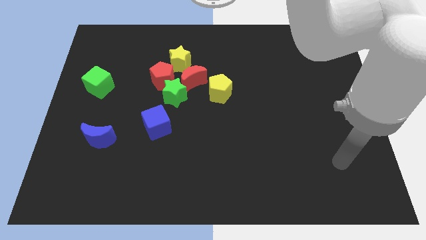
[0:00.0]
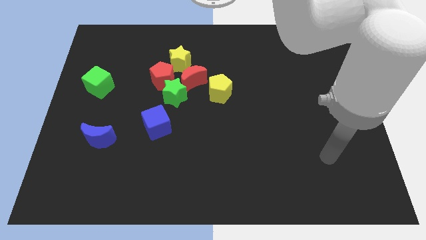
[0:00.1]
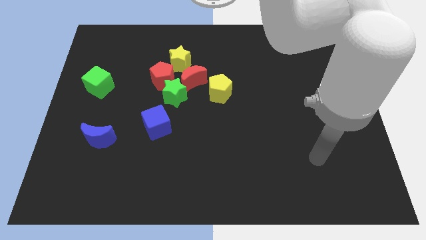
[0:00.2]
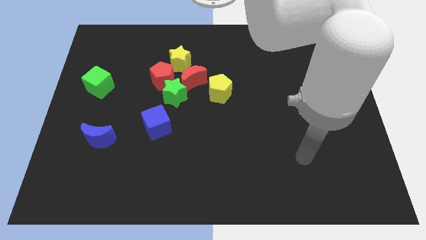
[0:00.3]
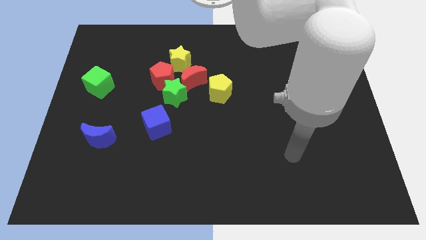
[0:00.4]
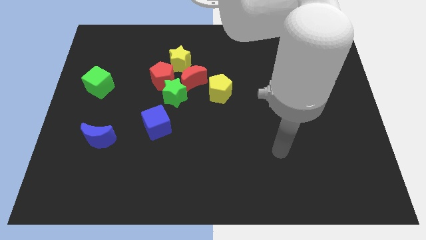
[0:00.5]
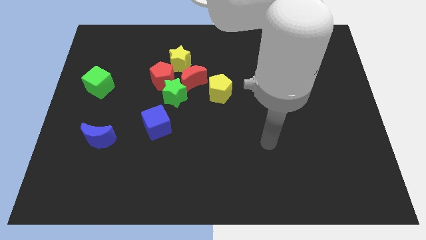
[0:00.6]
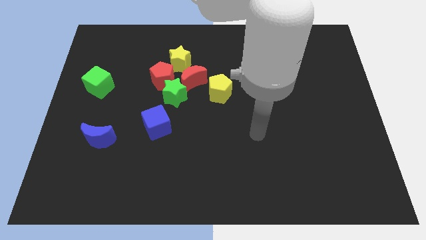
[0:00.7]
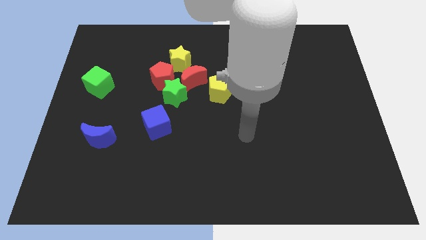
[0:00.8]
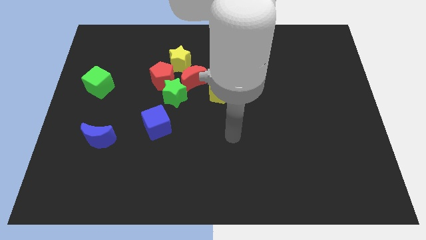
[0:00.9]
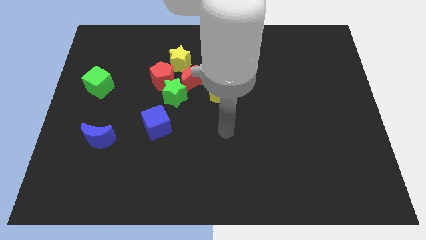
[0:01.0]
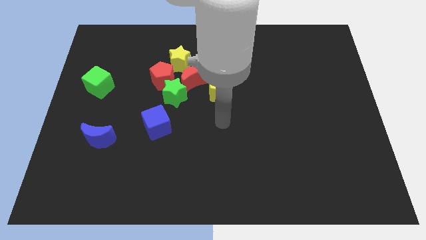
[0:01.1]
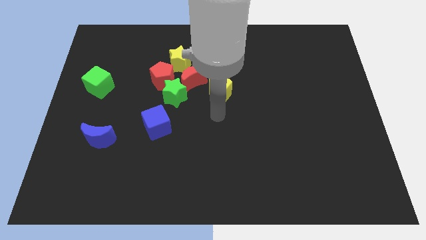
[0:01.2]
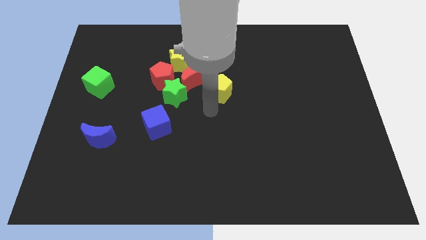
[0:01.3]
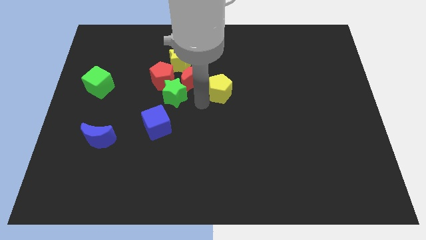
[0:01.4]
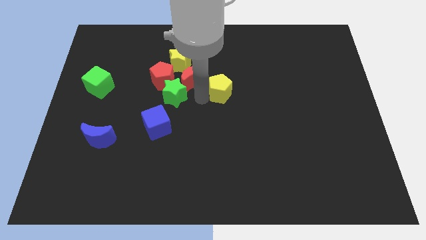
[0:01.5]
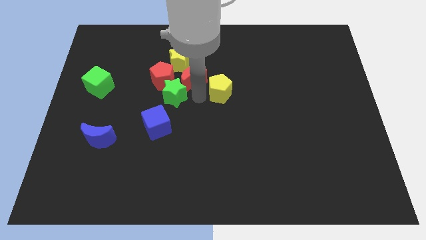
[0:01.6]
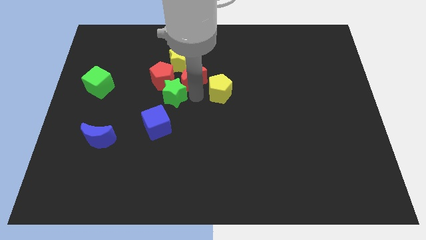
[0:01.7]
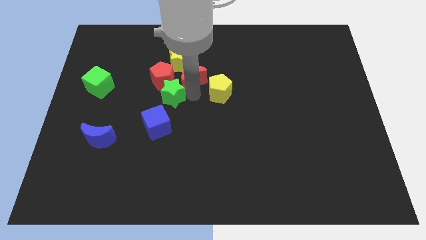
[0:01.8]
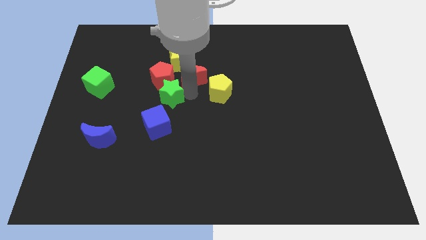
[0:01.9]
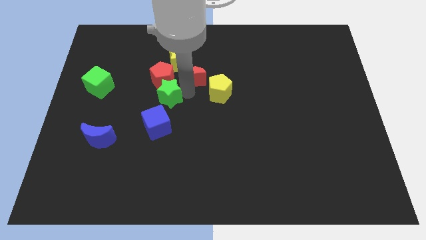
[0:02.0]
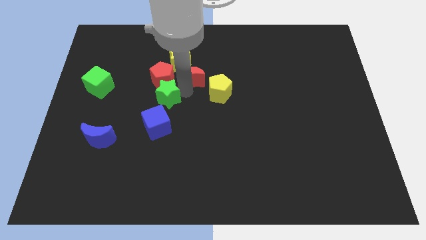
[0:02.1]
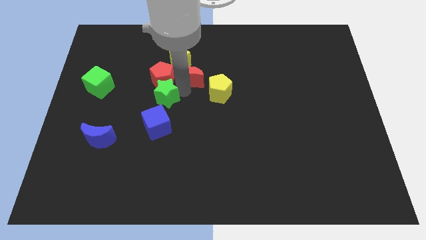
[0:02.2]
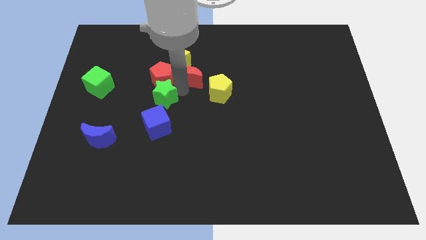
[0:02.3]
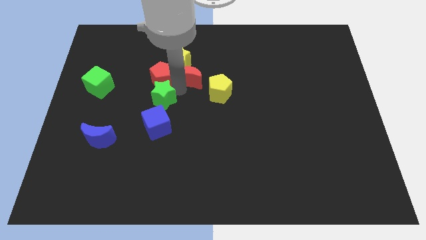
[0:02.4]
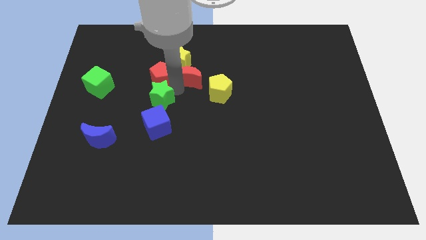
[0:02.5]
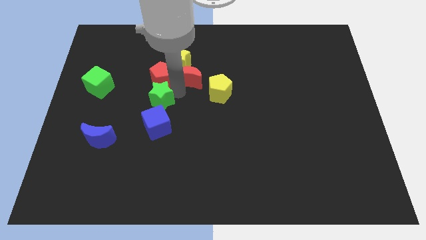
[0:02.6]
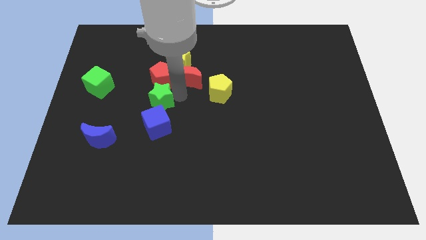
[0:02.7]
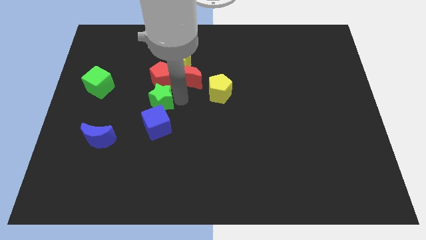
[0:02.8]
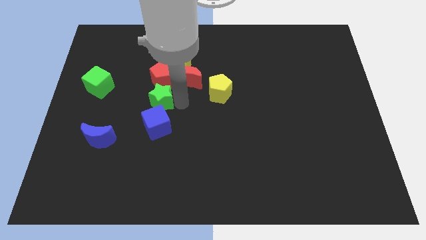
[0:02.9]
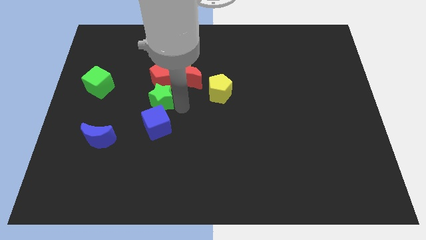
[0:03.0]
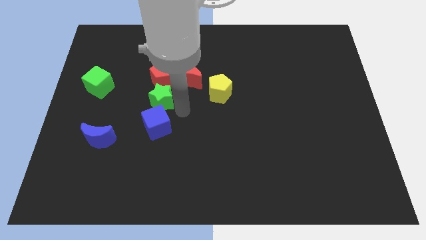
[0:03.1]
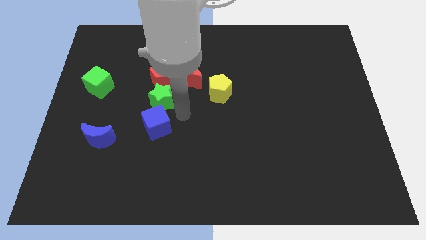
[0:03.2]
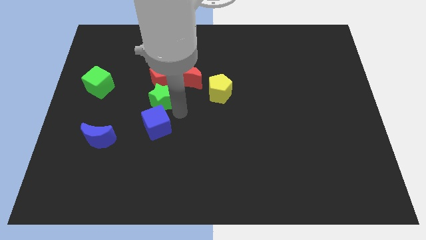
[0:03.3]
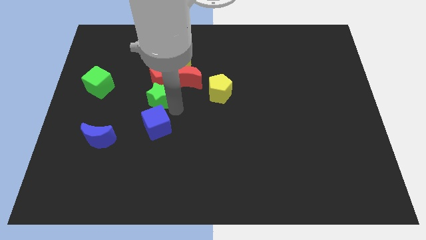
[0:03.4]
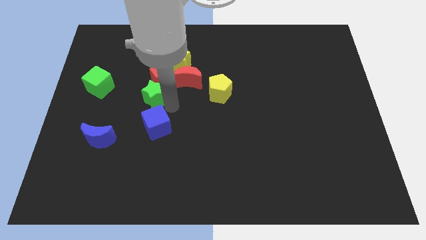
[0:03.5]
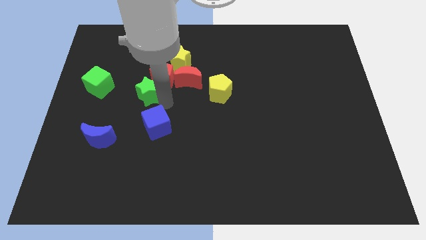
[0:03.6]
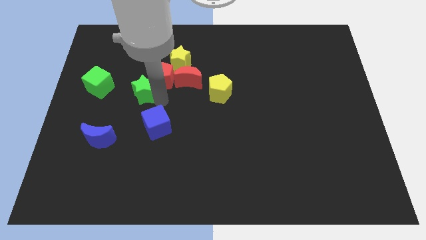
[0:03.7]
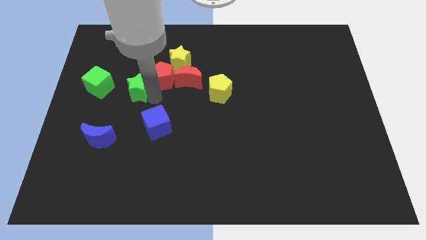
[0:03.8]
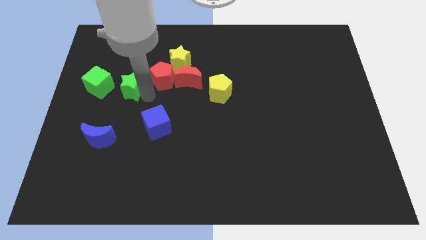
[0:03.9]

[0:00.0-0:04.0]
slightly slide the green star up and then to the left

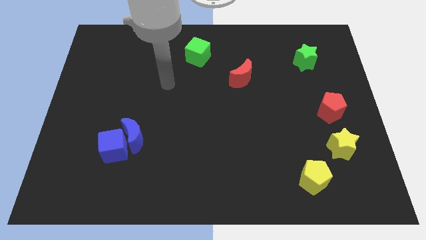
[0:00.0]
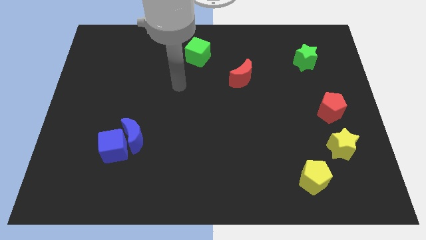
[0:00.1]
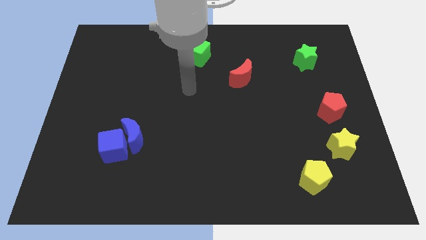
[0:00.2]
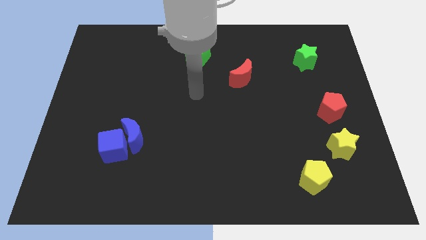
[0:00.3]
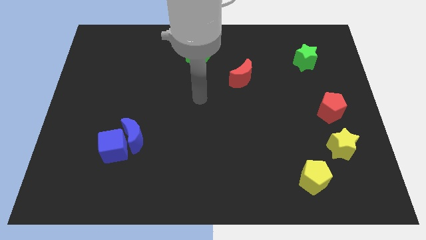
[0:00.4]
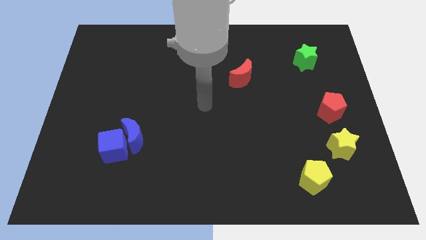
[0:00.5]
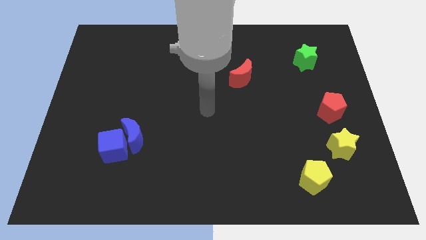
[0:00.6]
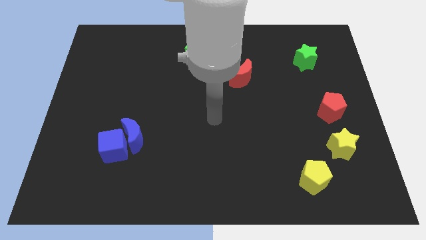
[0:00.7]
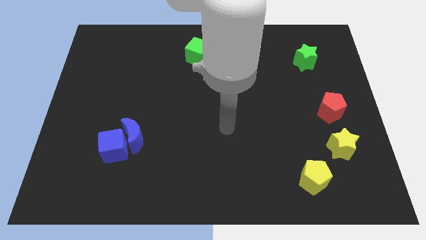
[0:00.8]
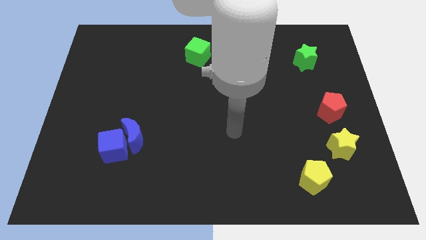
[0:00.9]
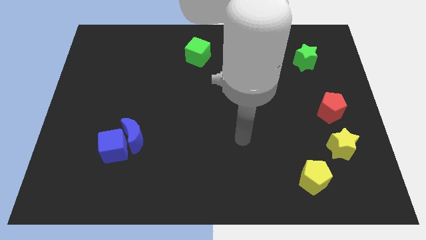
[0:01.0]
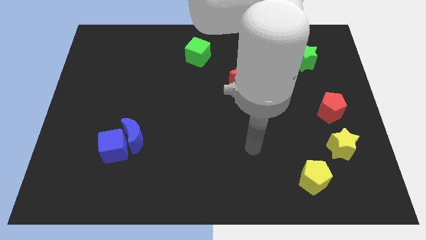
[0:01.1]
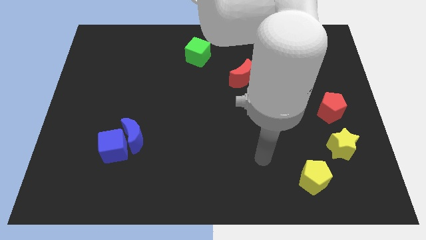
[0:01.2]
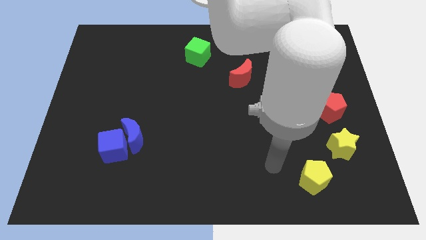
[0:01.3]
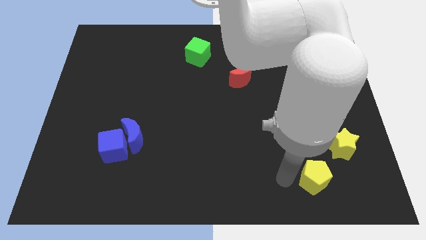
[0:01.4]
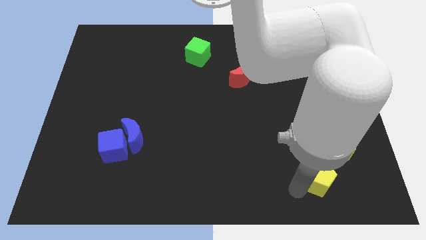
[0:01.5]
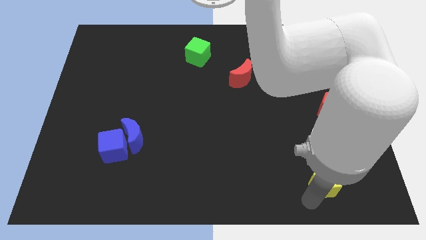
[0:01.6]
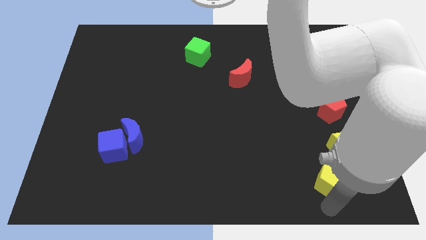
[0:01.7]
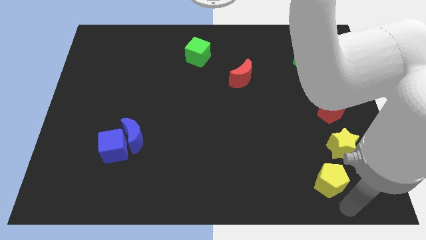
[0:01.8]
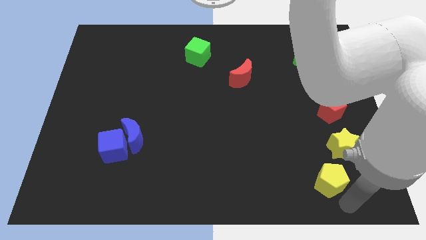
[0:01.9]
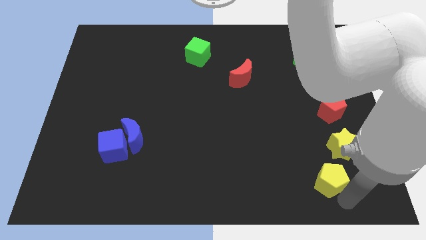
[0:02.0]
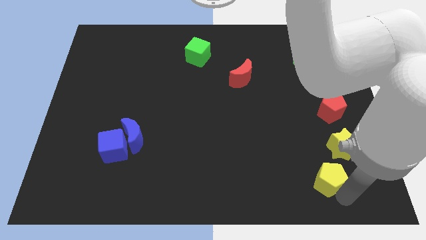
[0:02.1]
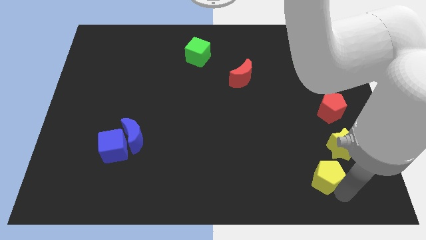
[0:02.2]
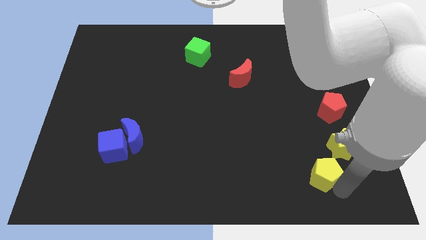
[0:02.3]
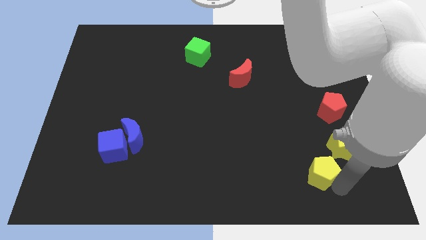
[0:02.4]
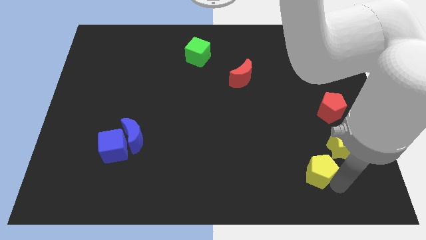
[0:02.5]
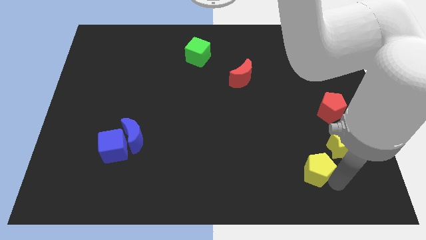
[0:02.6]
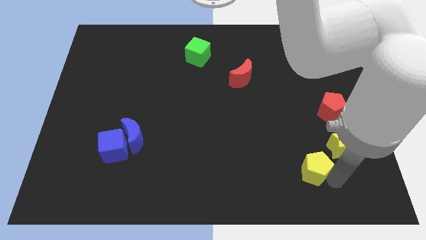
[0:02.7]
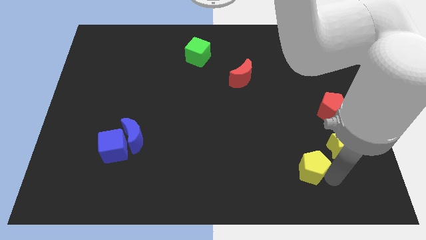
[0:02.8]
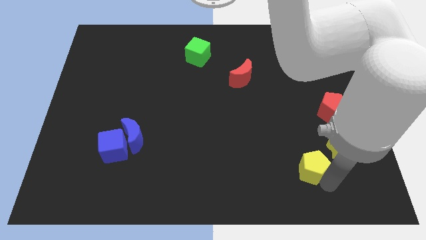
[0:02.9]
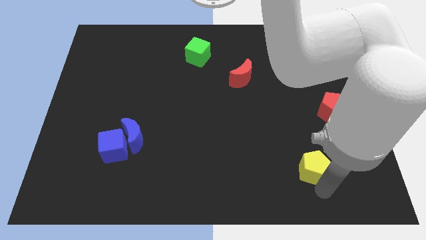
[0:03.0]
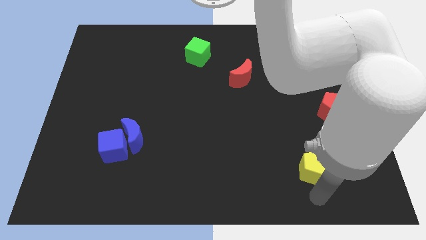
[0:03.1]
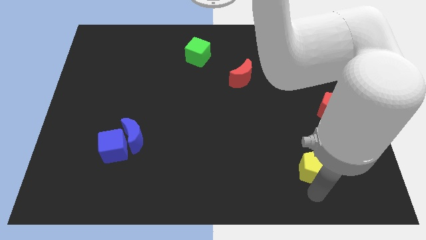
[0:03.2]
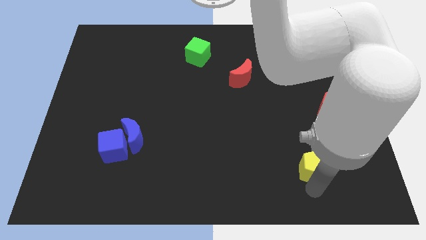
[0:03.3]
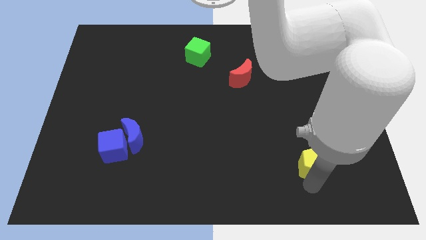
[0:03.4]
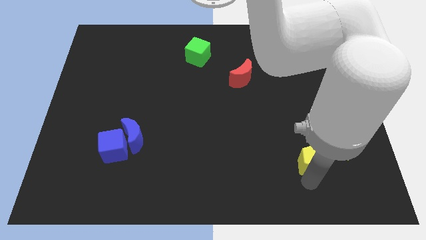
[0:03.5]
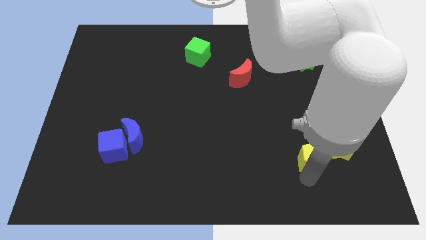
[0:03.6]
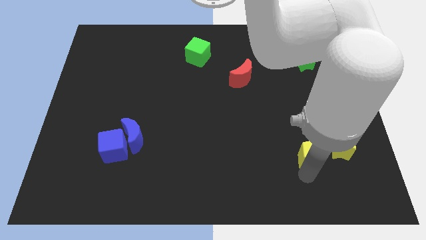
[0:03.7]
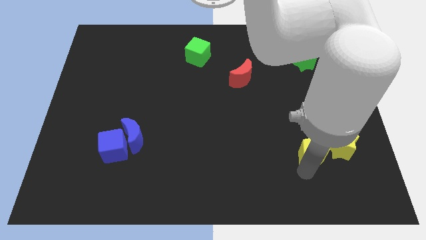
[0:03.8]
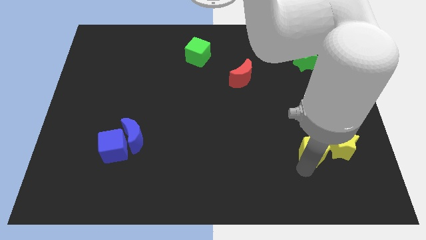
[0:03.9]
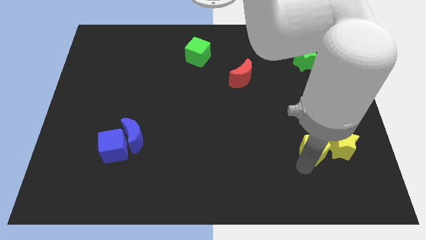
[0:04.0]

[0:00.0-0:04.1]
slightly slide the yellow pentagon upwards
